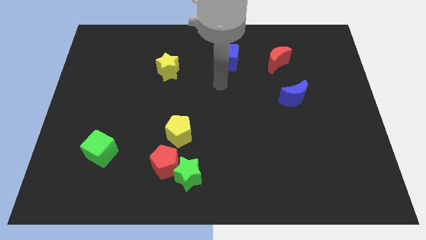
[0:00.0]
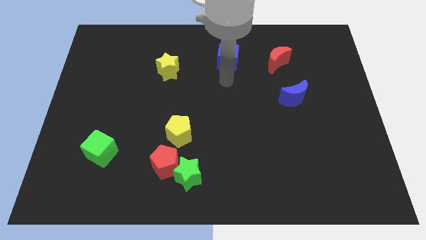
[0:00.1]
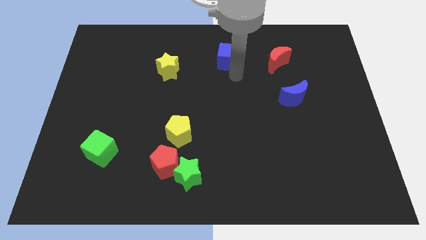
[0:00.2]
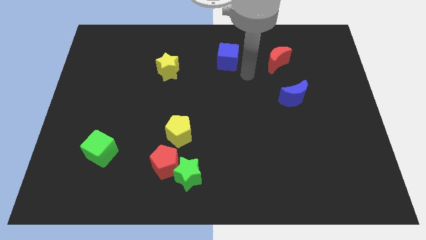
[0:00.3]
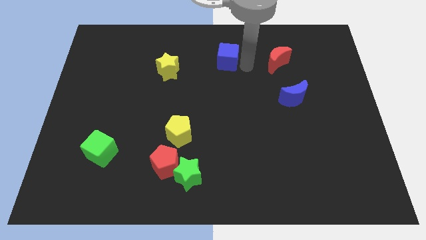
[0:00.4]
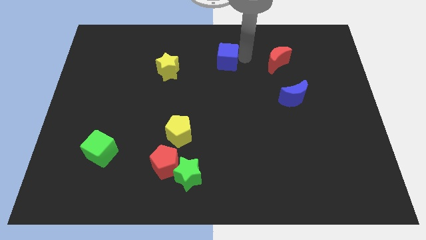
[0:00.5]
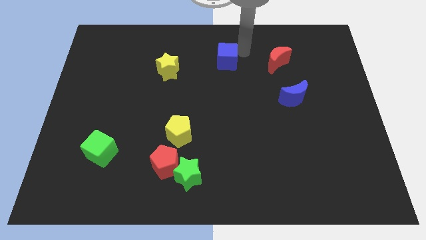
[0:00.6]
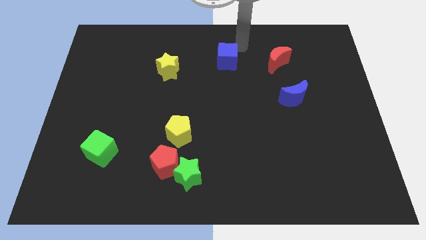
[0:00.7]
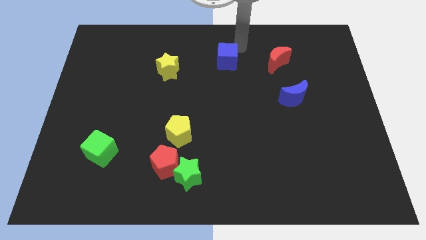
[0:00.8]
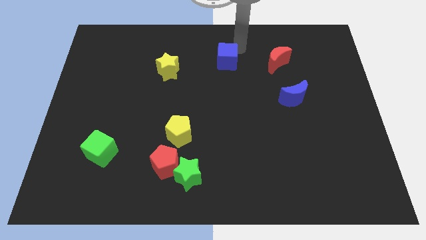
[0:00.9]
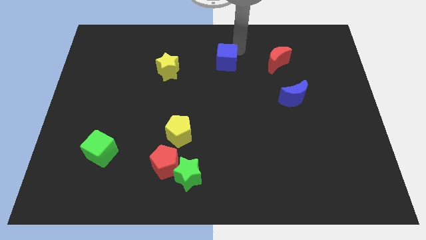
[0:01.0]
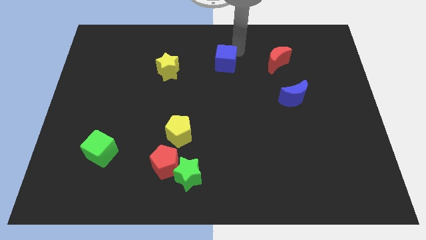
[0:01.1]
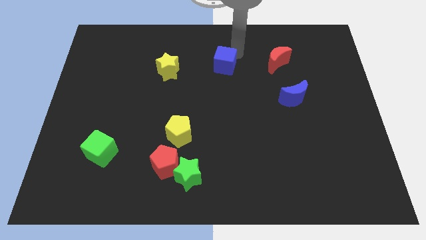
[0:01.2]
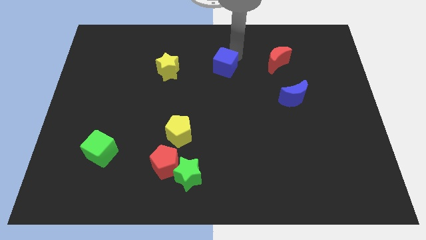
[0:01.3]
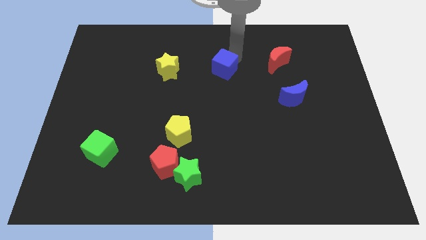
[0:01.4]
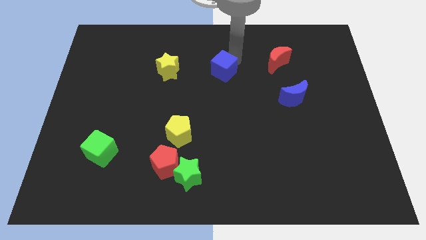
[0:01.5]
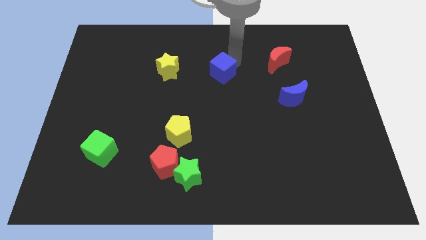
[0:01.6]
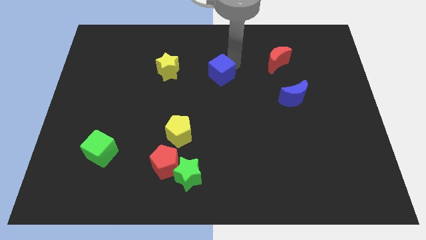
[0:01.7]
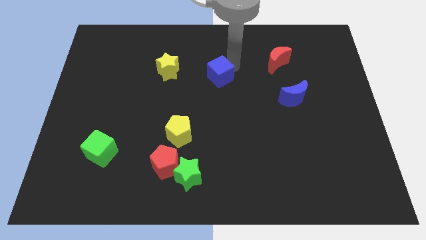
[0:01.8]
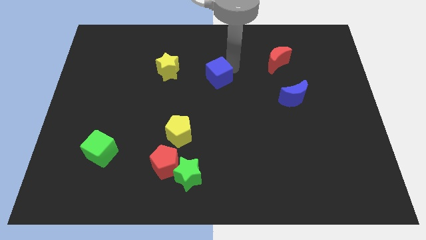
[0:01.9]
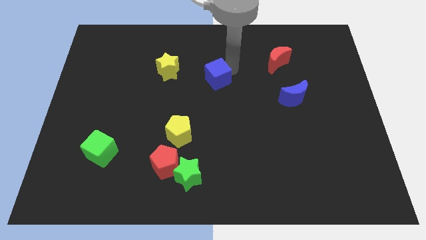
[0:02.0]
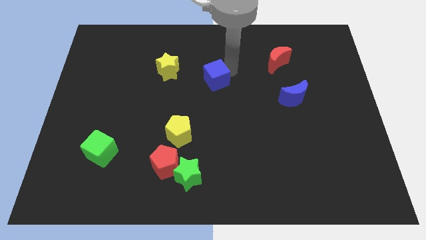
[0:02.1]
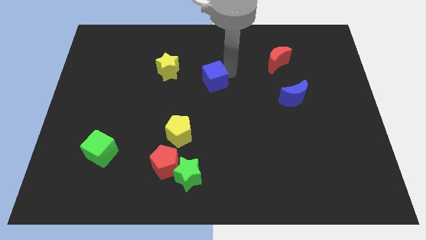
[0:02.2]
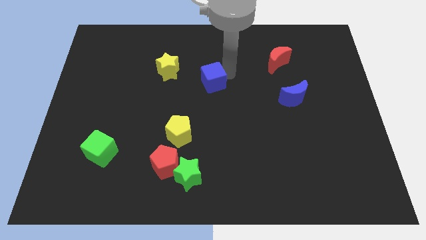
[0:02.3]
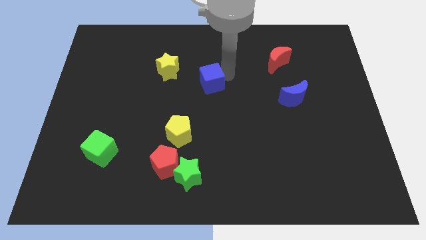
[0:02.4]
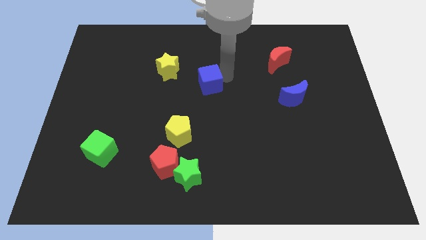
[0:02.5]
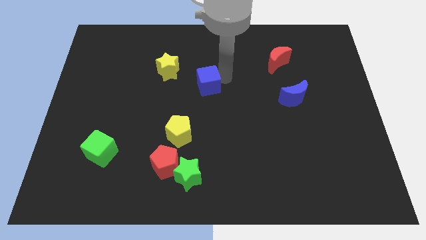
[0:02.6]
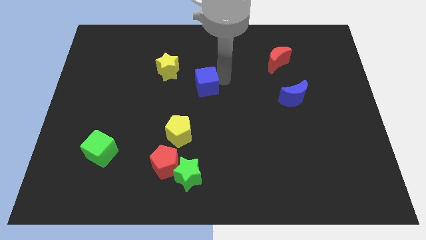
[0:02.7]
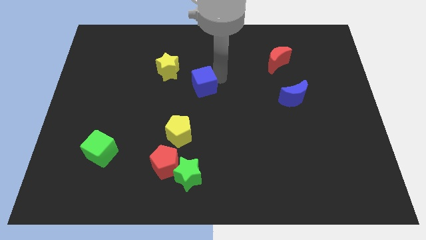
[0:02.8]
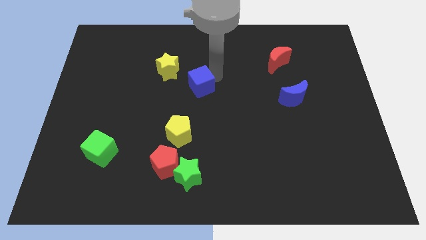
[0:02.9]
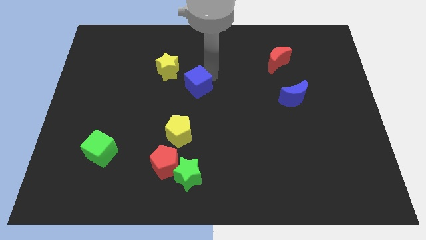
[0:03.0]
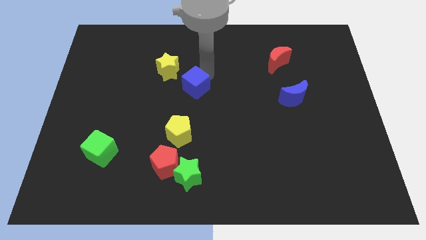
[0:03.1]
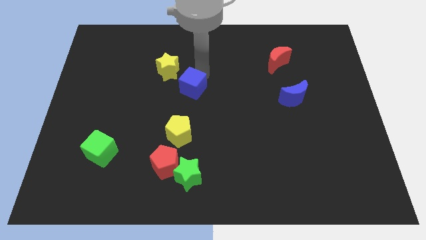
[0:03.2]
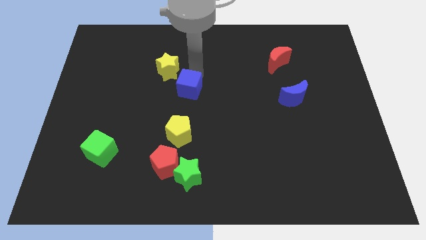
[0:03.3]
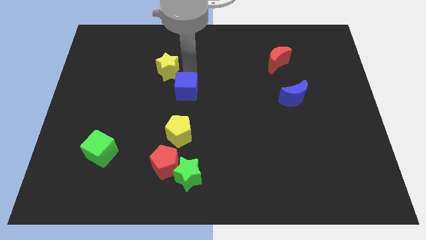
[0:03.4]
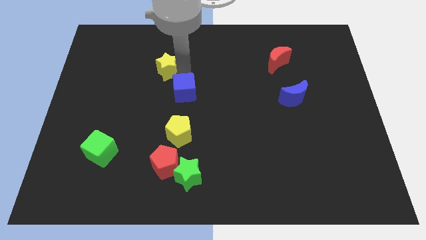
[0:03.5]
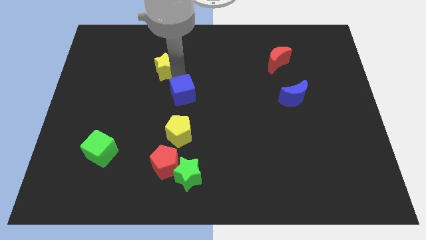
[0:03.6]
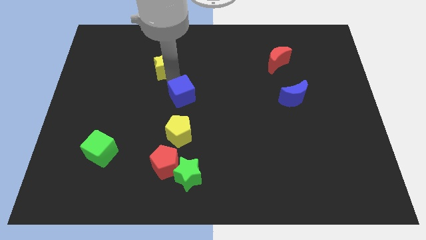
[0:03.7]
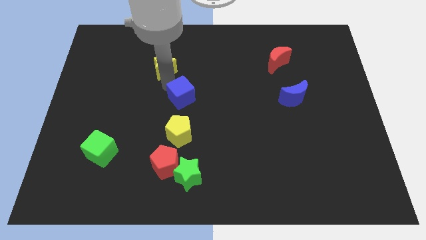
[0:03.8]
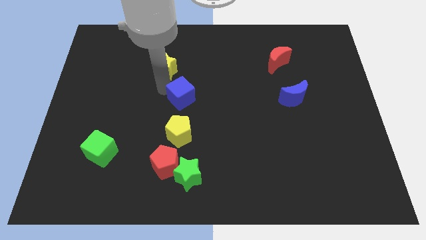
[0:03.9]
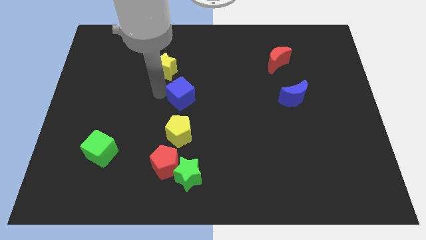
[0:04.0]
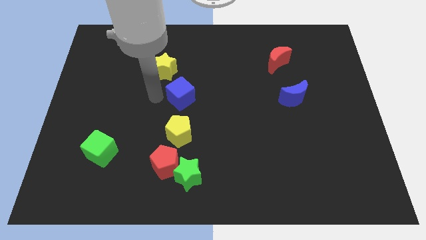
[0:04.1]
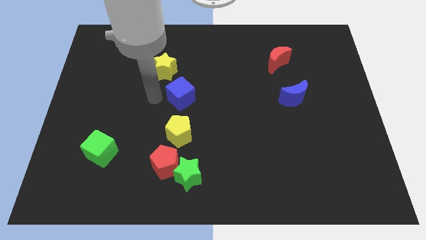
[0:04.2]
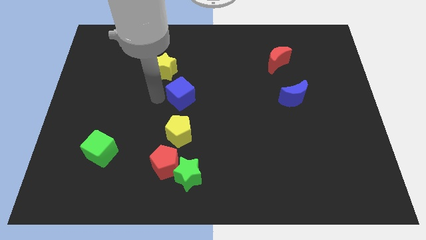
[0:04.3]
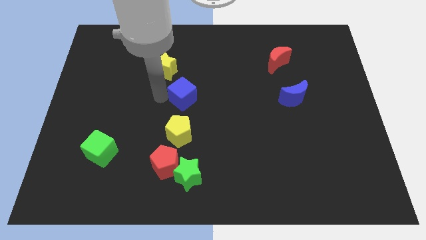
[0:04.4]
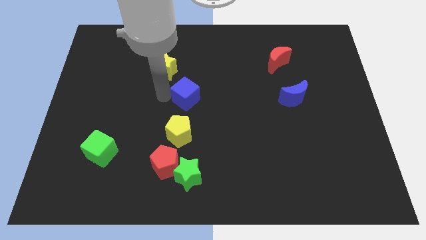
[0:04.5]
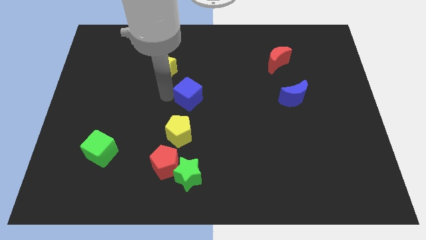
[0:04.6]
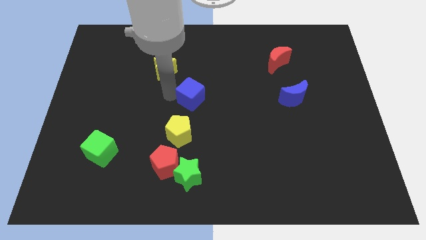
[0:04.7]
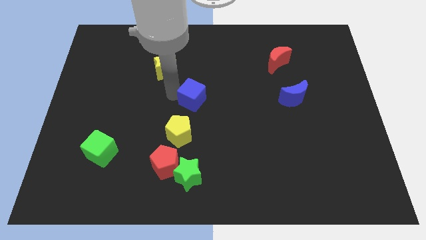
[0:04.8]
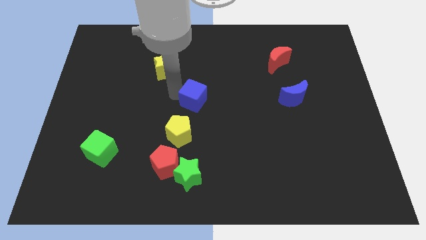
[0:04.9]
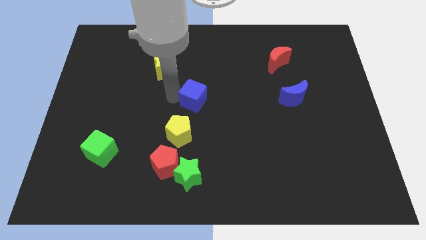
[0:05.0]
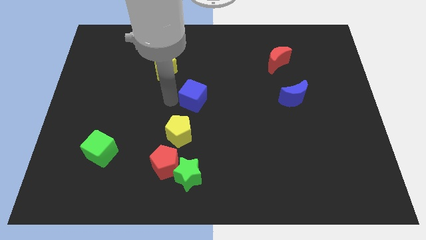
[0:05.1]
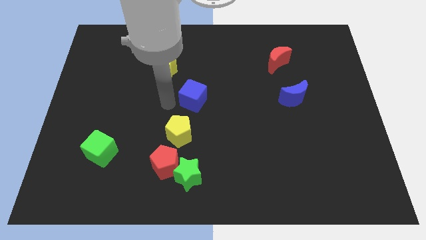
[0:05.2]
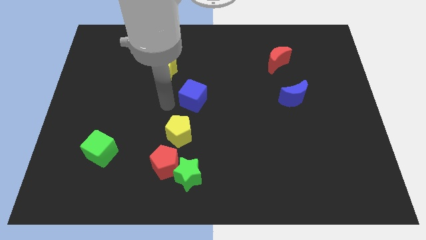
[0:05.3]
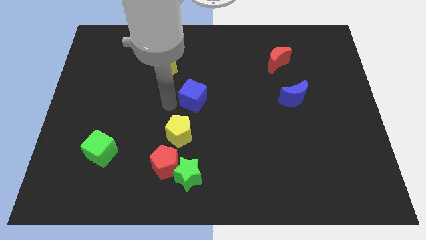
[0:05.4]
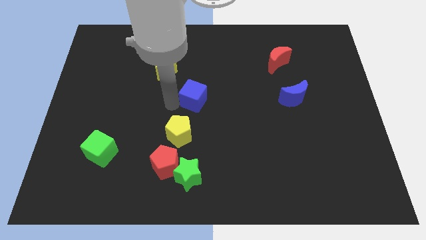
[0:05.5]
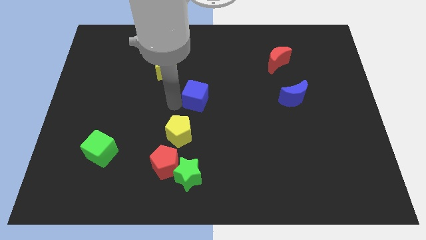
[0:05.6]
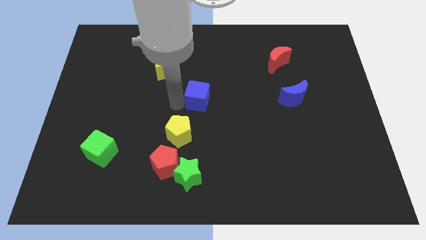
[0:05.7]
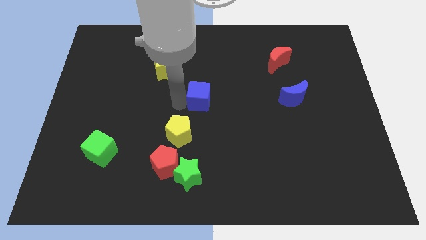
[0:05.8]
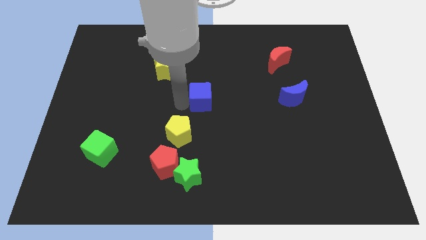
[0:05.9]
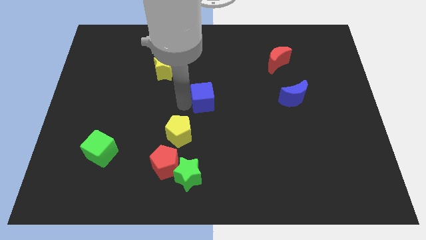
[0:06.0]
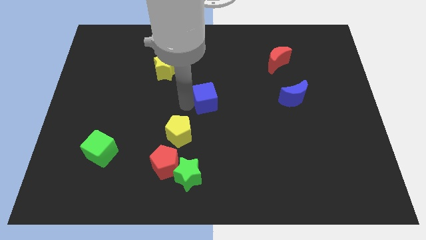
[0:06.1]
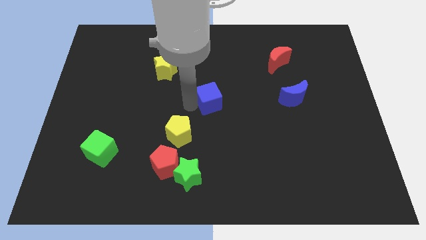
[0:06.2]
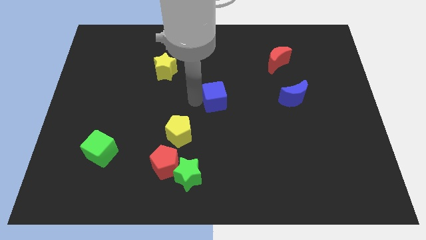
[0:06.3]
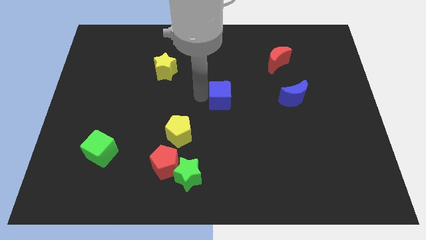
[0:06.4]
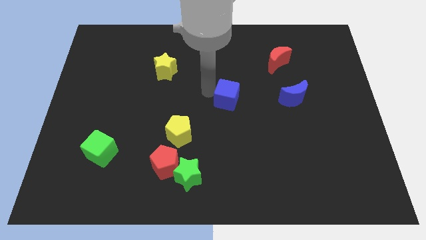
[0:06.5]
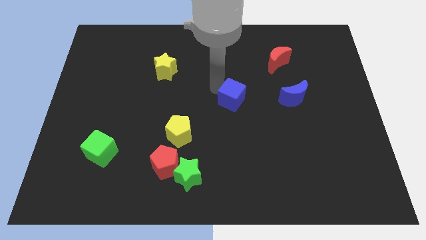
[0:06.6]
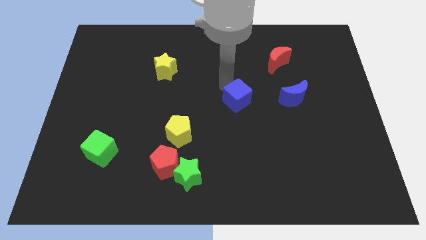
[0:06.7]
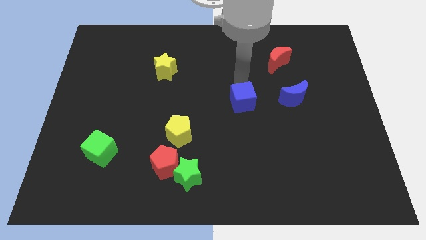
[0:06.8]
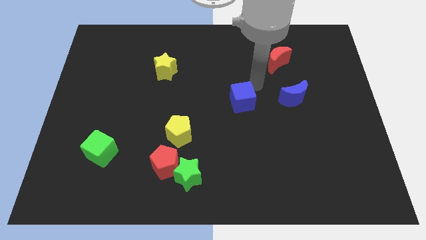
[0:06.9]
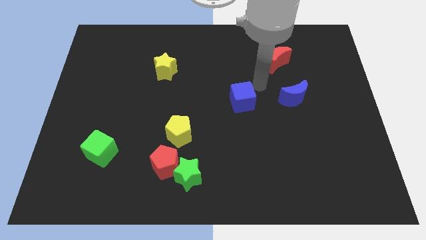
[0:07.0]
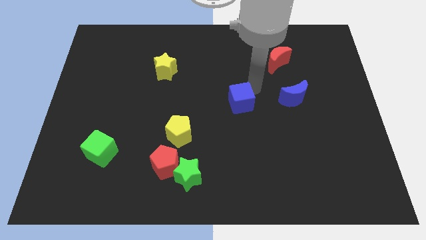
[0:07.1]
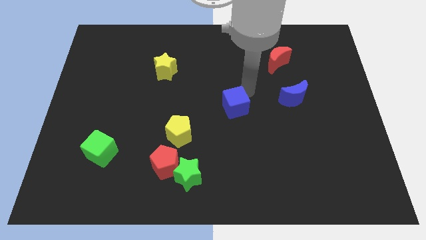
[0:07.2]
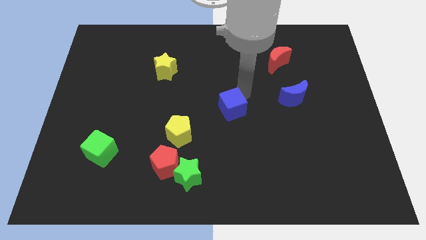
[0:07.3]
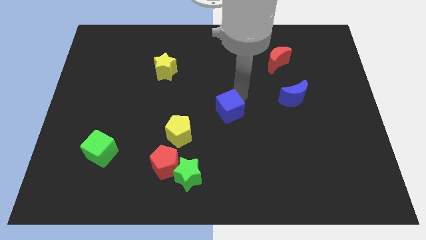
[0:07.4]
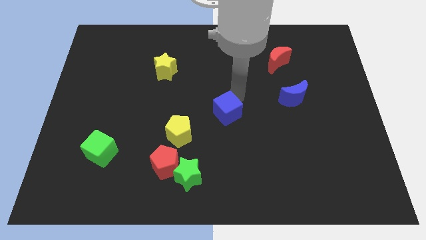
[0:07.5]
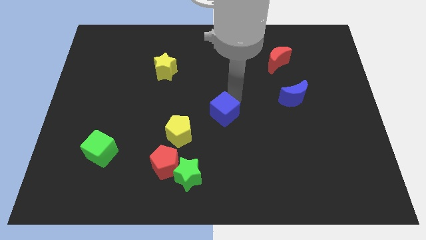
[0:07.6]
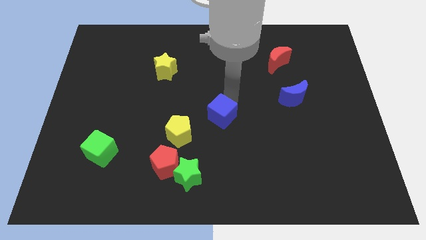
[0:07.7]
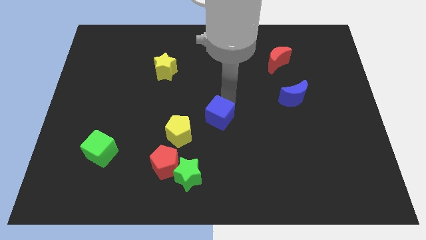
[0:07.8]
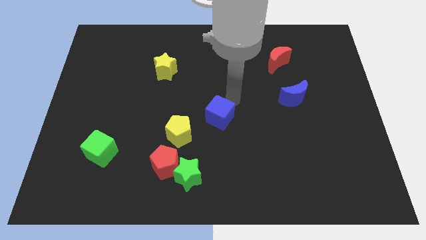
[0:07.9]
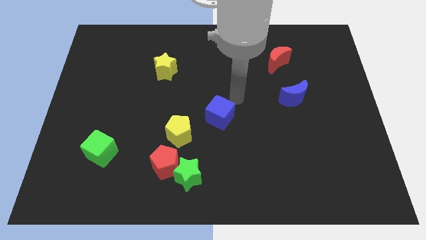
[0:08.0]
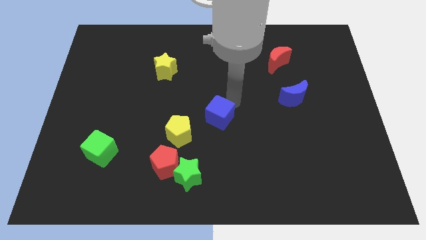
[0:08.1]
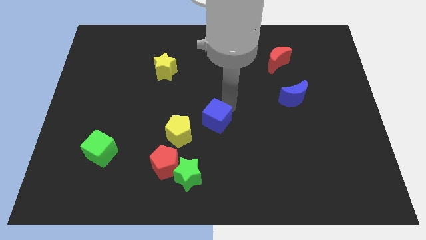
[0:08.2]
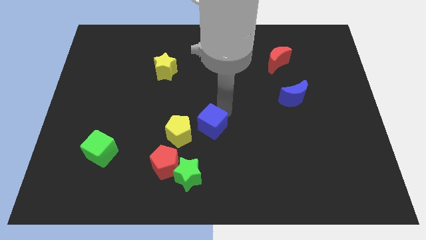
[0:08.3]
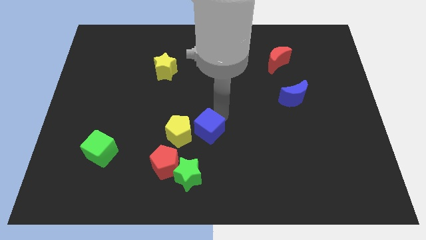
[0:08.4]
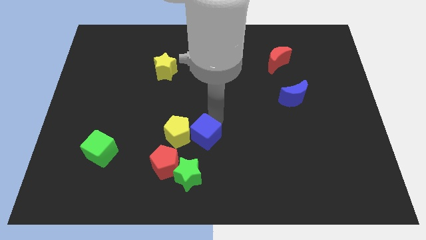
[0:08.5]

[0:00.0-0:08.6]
move the blue cube to the bottom right of the yellow pentagon
